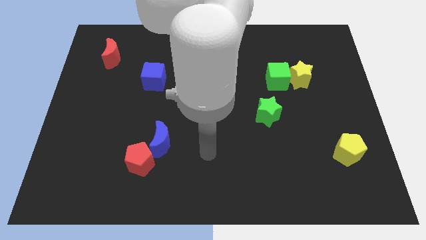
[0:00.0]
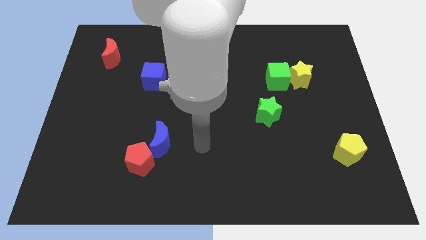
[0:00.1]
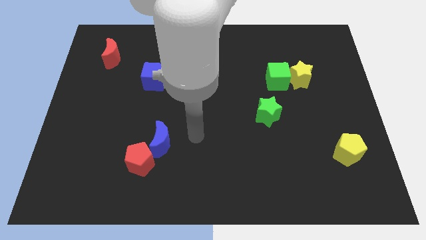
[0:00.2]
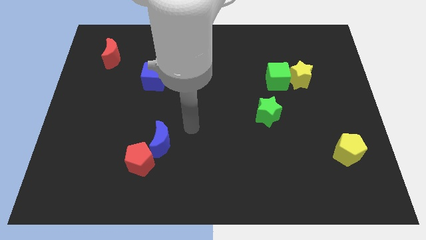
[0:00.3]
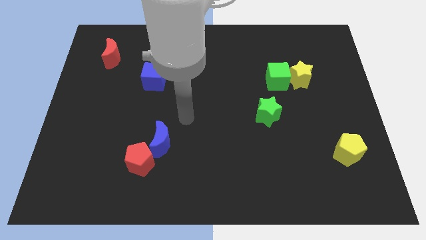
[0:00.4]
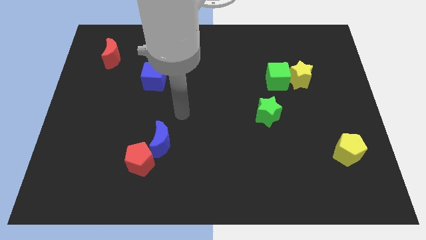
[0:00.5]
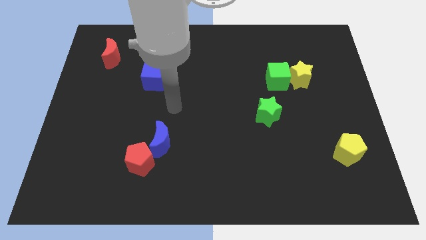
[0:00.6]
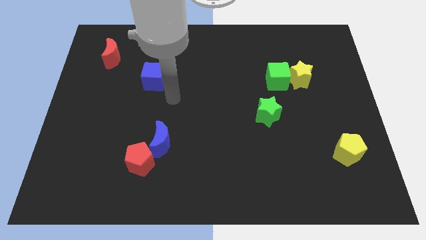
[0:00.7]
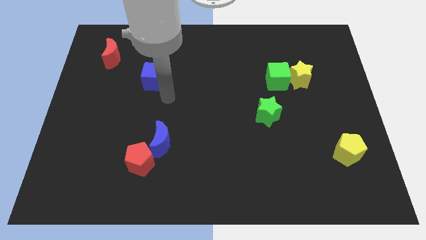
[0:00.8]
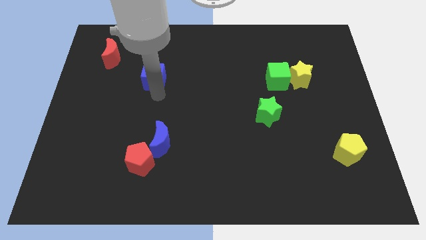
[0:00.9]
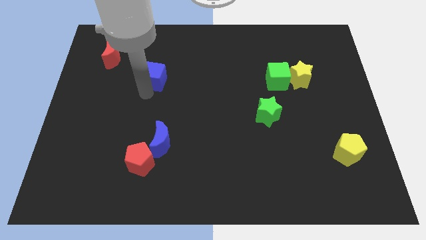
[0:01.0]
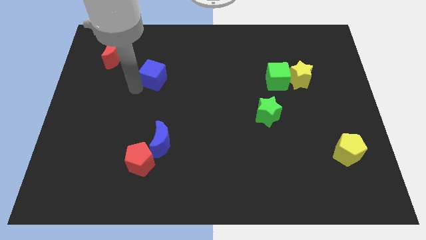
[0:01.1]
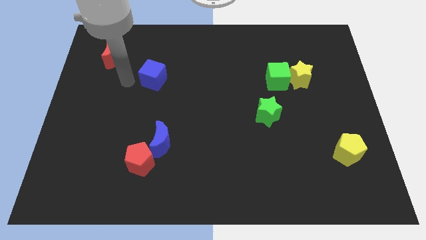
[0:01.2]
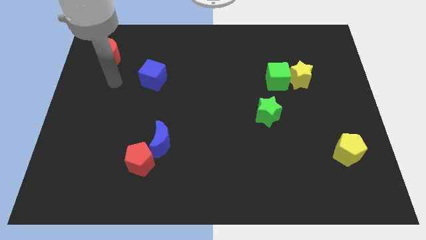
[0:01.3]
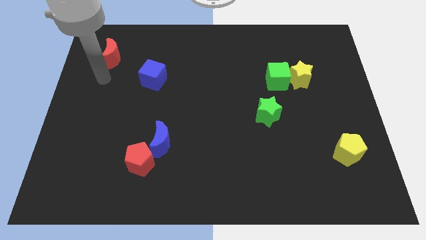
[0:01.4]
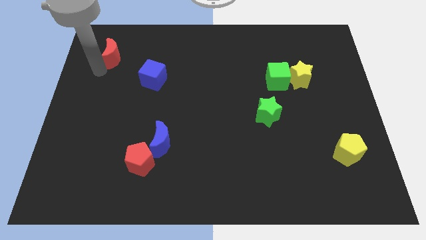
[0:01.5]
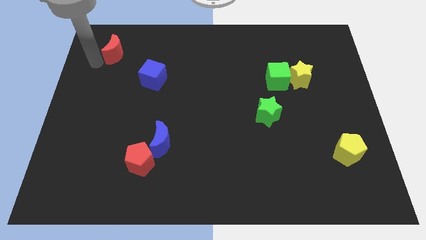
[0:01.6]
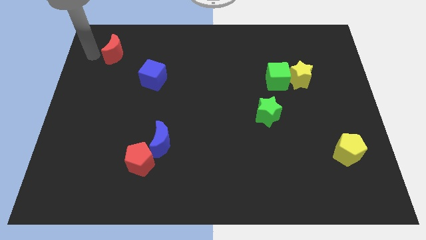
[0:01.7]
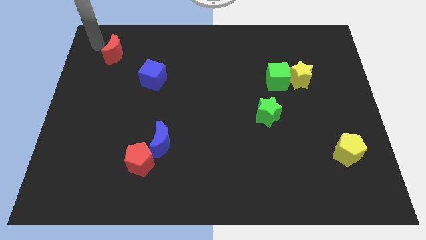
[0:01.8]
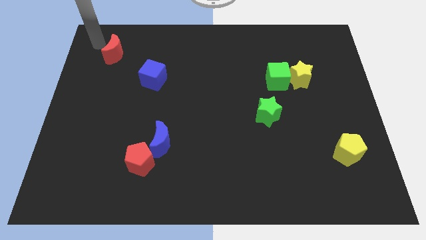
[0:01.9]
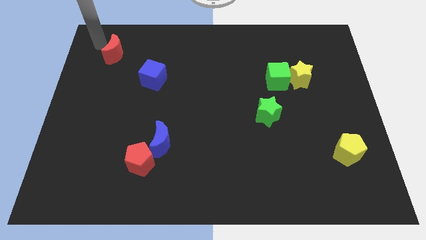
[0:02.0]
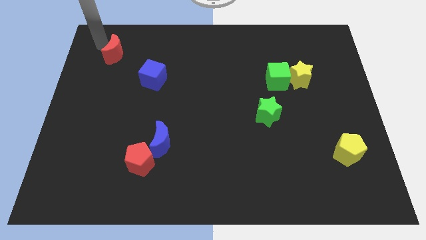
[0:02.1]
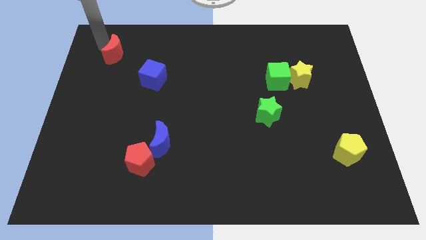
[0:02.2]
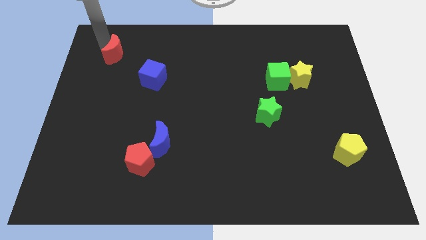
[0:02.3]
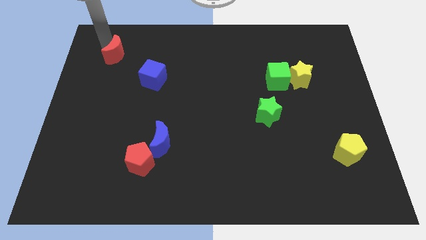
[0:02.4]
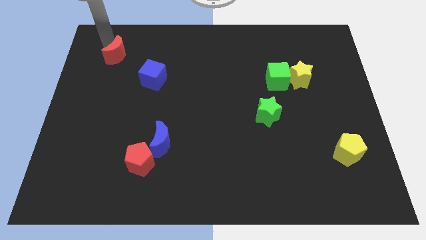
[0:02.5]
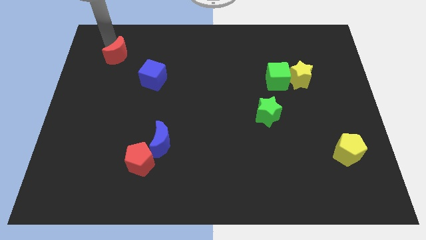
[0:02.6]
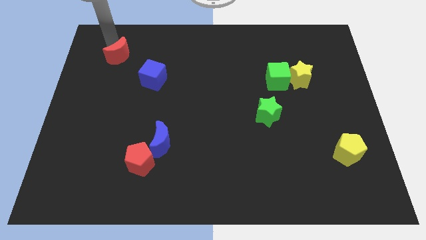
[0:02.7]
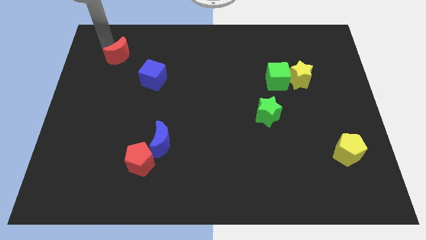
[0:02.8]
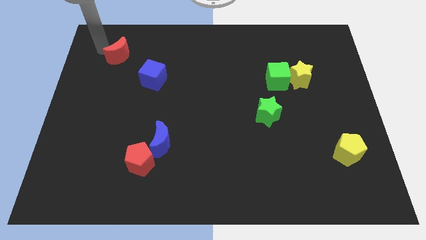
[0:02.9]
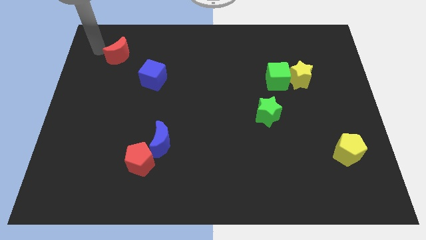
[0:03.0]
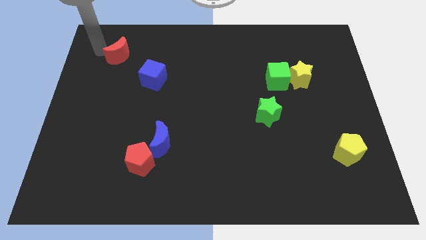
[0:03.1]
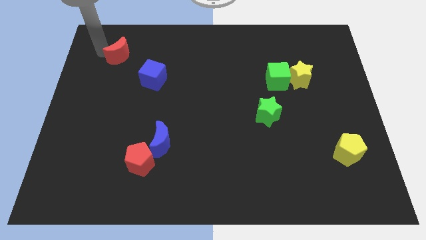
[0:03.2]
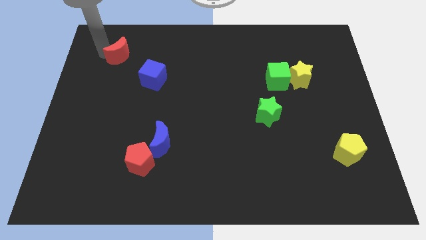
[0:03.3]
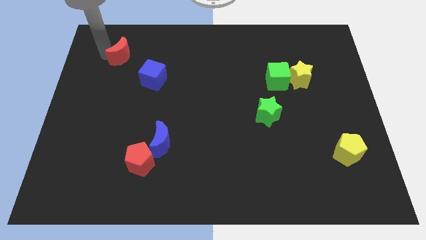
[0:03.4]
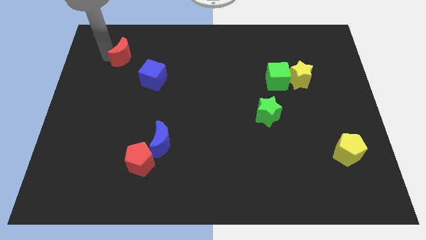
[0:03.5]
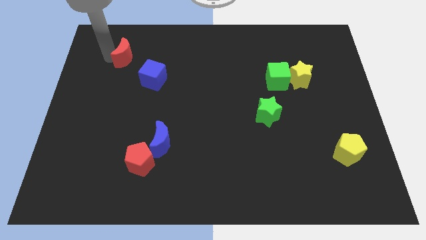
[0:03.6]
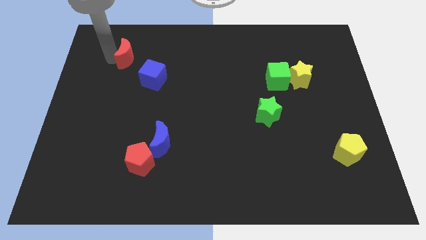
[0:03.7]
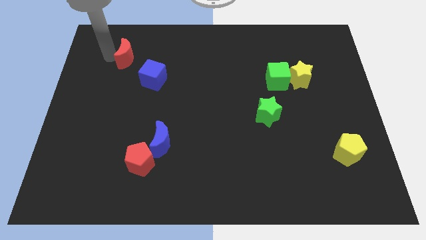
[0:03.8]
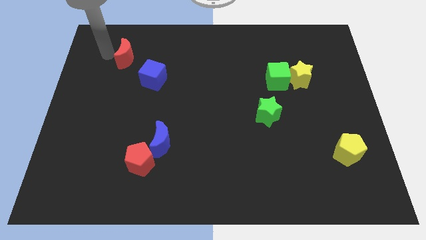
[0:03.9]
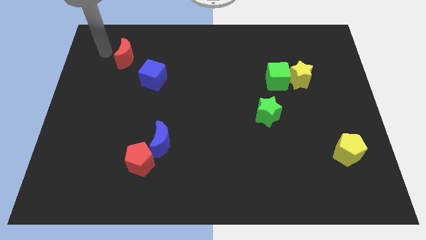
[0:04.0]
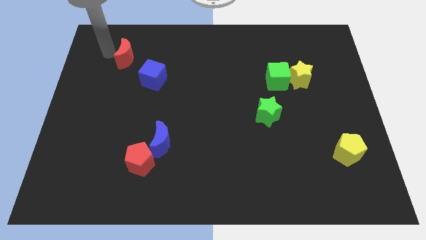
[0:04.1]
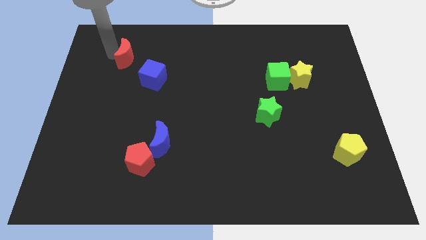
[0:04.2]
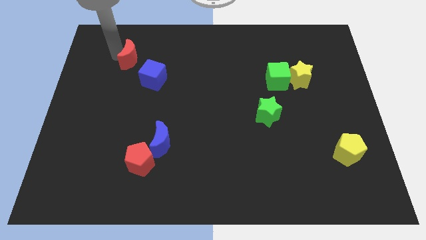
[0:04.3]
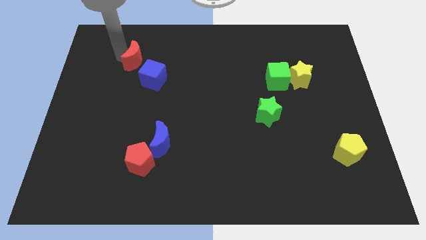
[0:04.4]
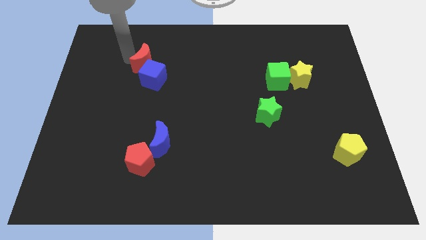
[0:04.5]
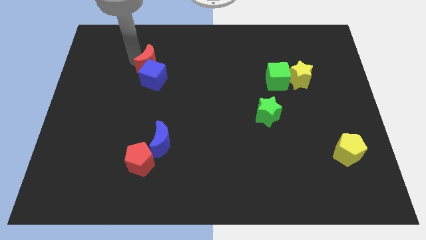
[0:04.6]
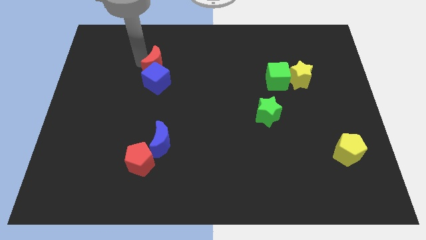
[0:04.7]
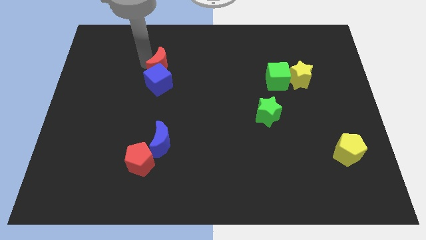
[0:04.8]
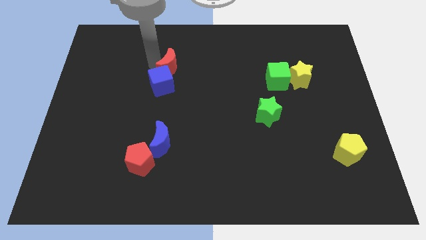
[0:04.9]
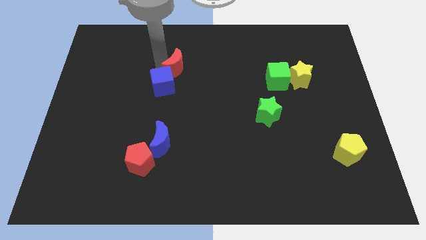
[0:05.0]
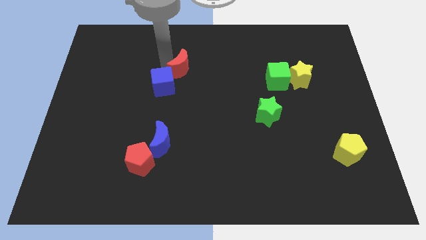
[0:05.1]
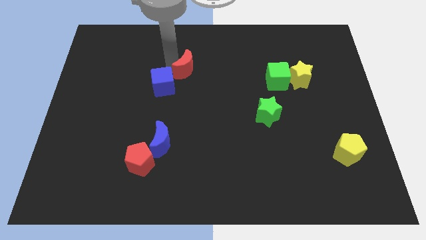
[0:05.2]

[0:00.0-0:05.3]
put the red moon to the middle

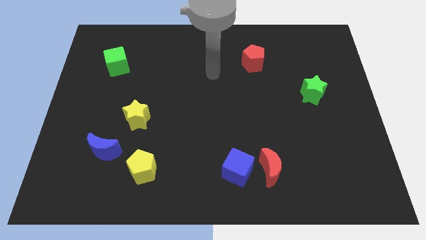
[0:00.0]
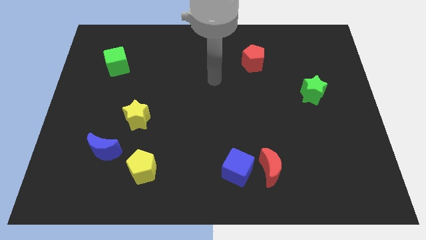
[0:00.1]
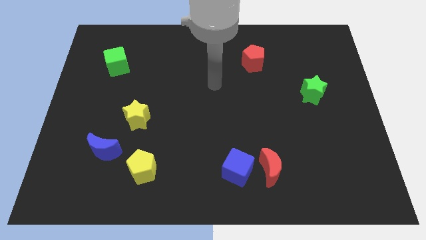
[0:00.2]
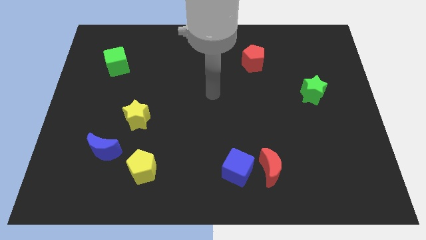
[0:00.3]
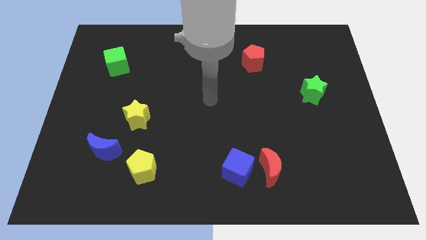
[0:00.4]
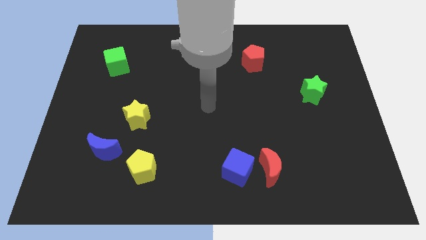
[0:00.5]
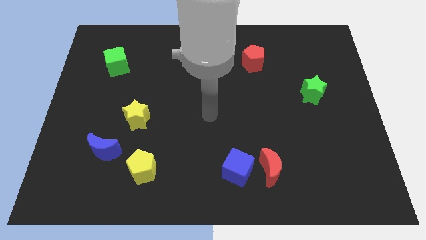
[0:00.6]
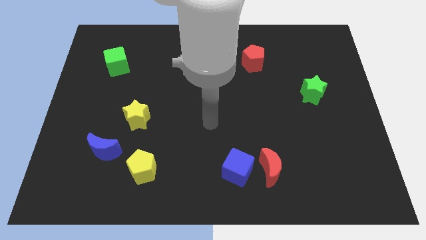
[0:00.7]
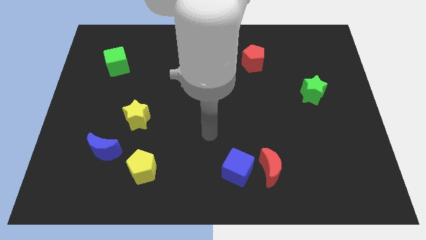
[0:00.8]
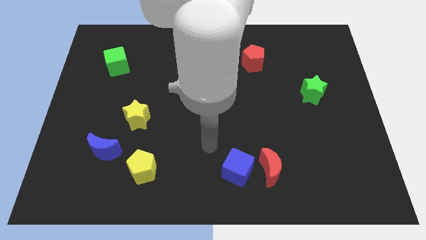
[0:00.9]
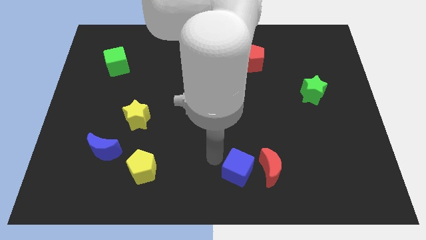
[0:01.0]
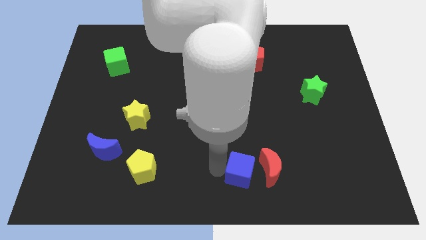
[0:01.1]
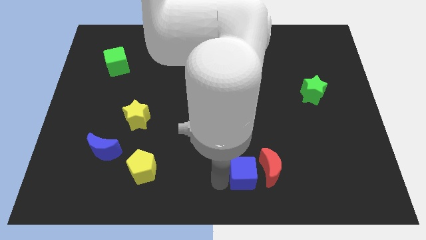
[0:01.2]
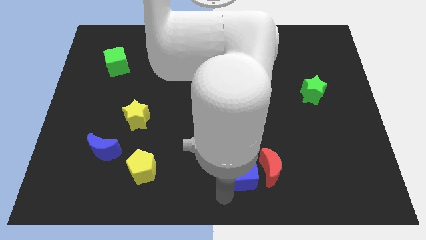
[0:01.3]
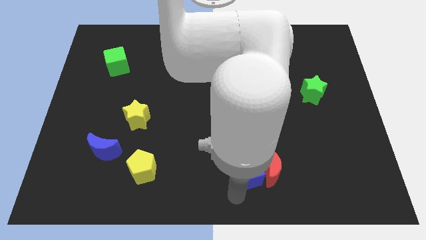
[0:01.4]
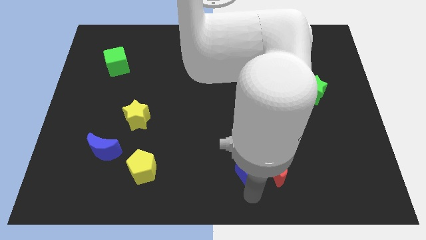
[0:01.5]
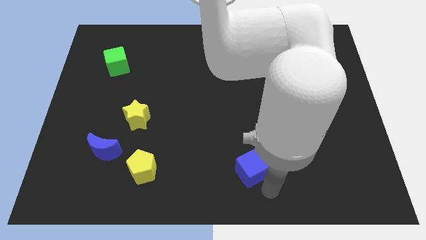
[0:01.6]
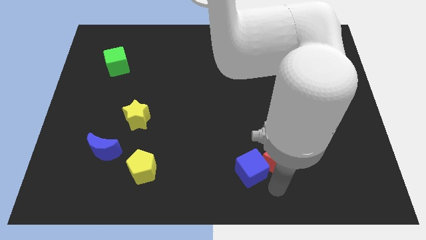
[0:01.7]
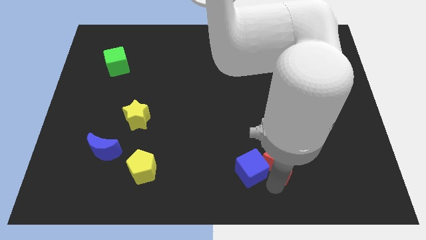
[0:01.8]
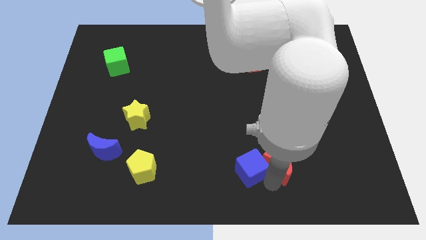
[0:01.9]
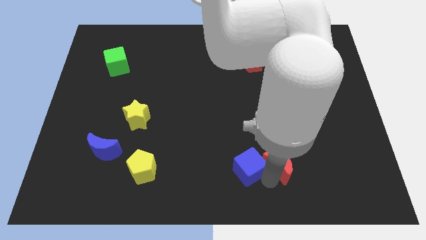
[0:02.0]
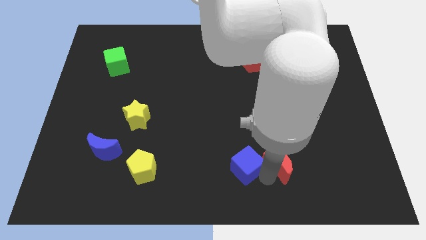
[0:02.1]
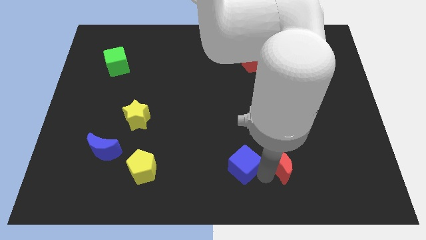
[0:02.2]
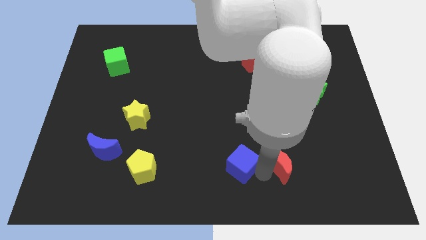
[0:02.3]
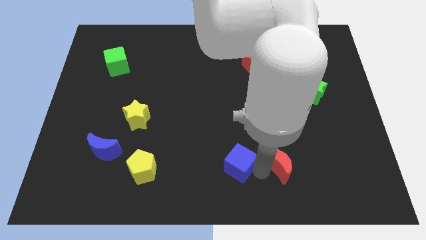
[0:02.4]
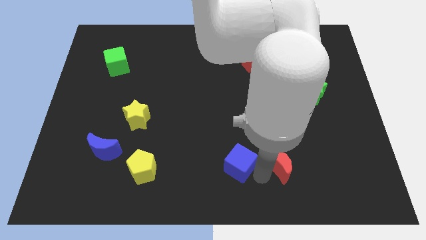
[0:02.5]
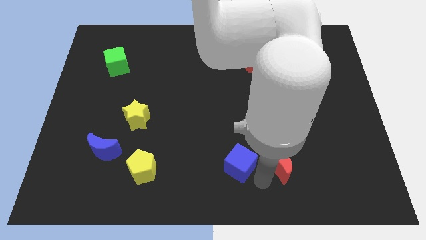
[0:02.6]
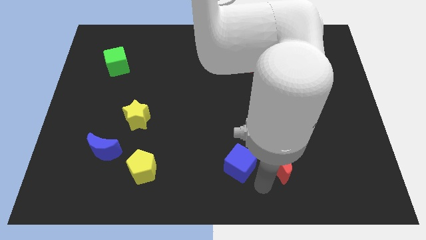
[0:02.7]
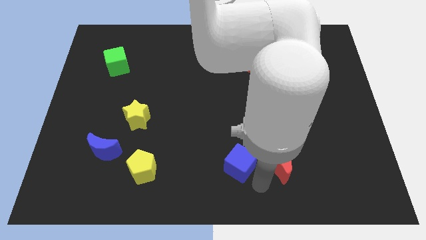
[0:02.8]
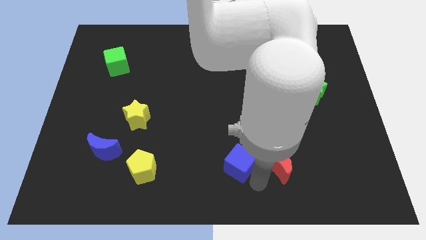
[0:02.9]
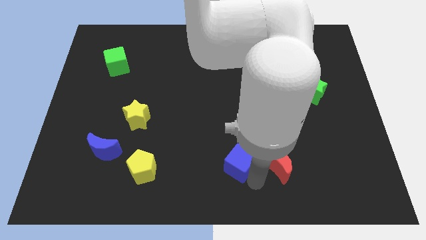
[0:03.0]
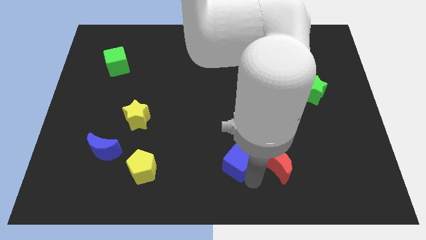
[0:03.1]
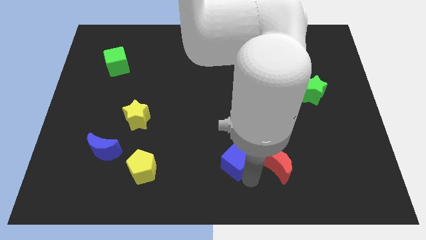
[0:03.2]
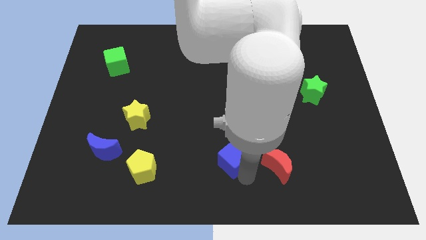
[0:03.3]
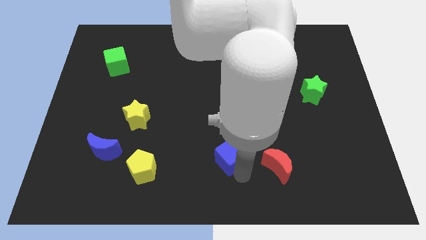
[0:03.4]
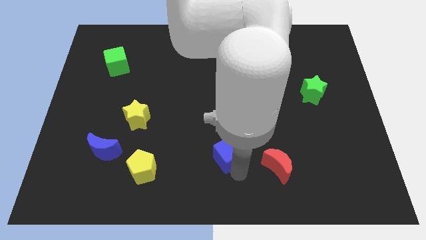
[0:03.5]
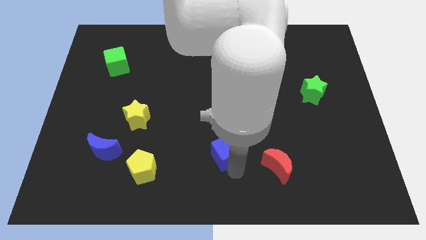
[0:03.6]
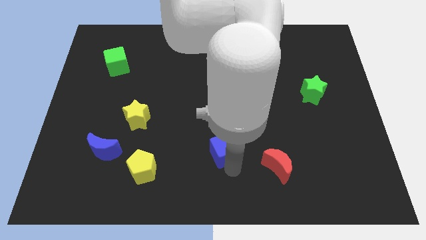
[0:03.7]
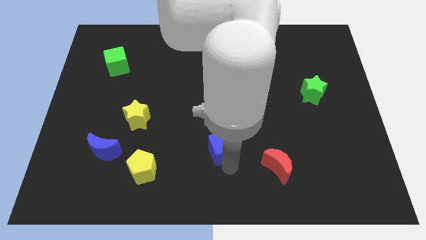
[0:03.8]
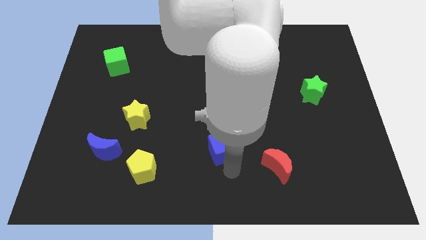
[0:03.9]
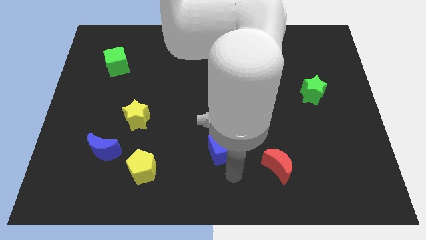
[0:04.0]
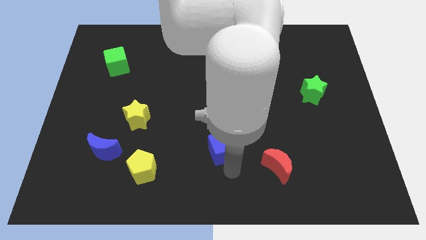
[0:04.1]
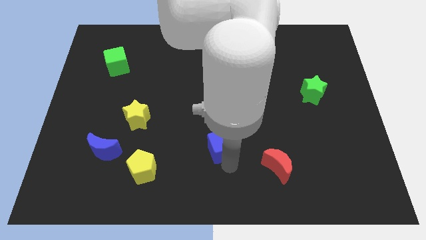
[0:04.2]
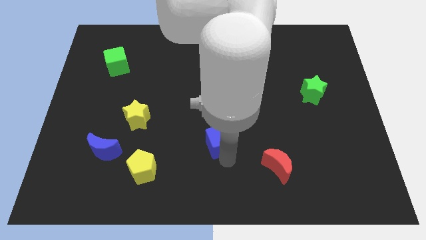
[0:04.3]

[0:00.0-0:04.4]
slide the blue cube to the middle of the board
